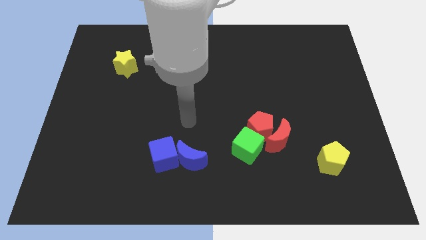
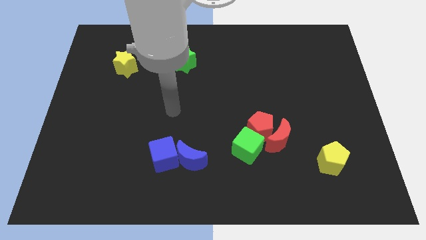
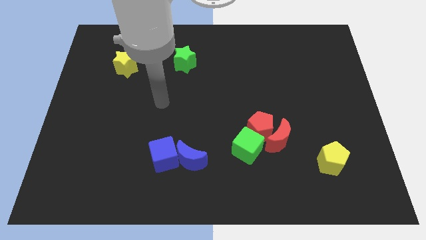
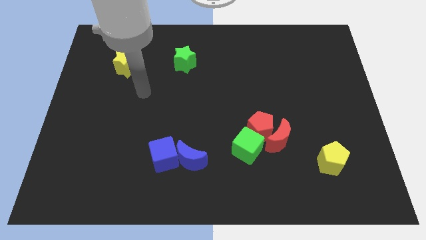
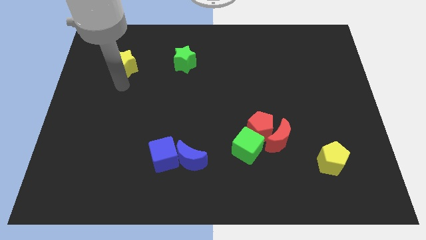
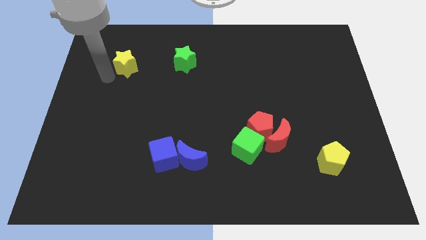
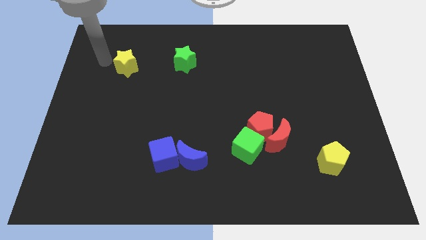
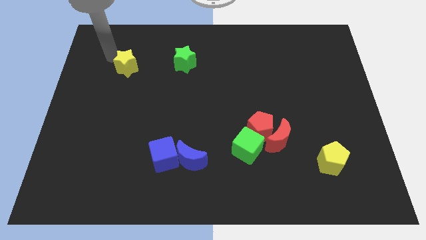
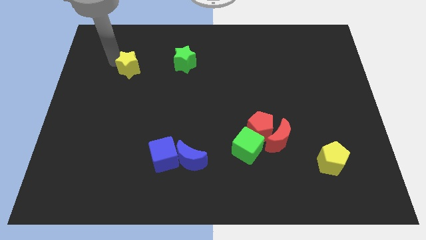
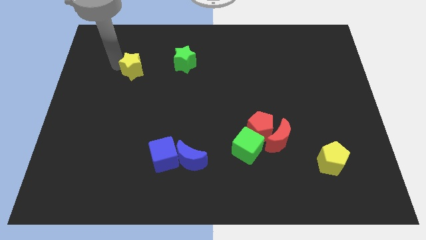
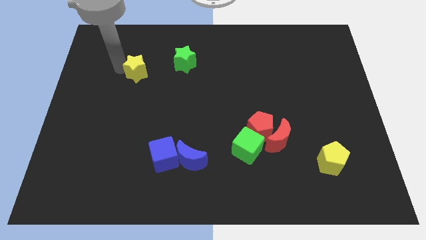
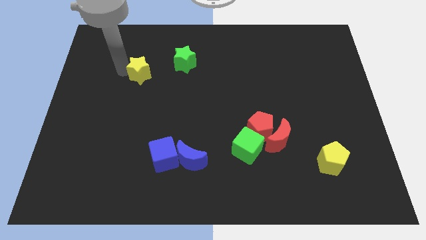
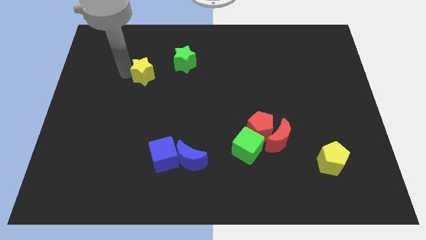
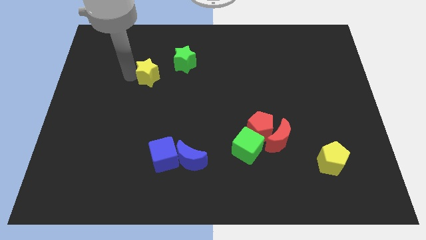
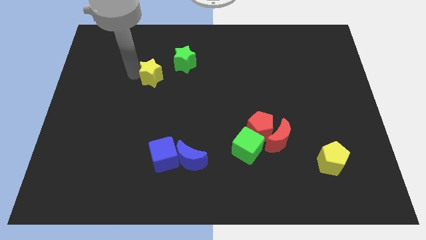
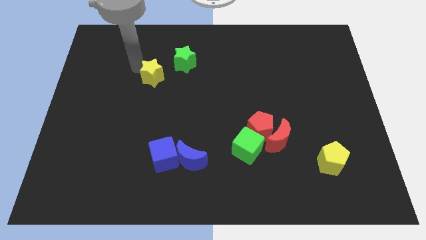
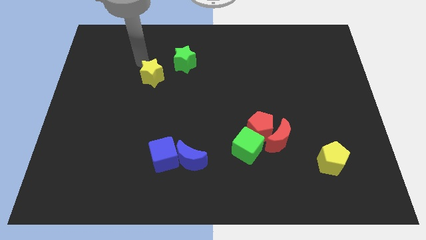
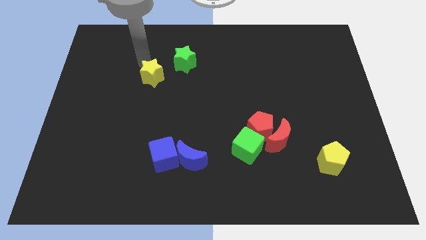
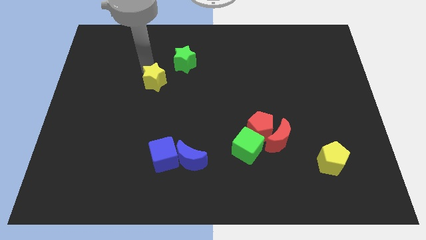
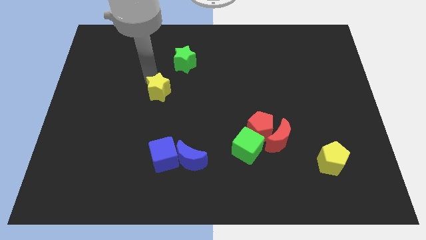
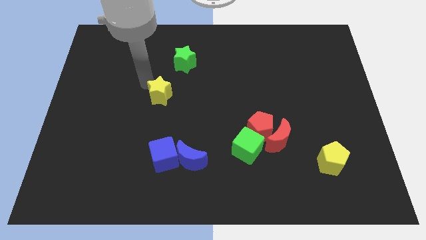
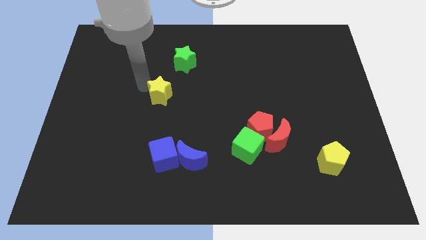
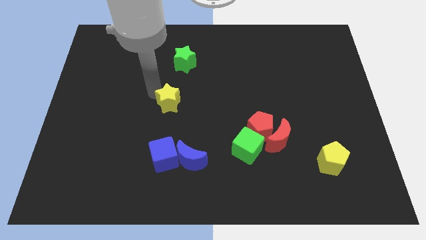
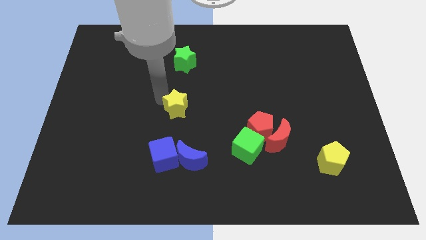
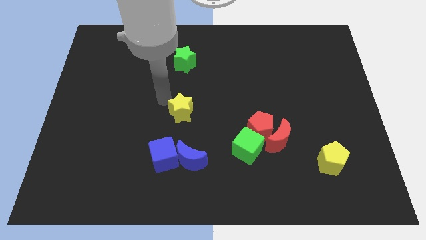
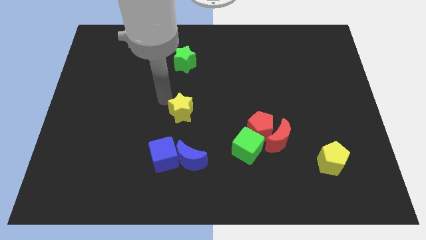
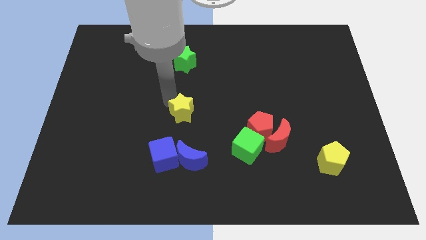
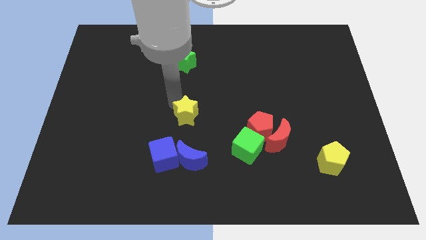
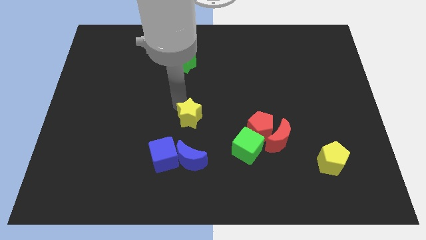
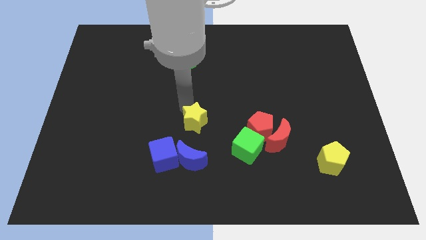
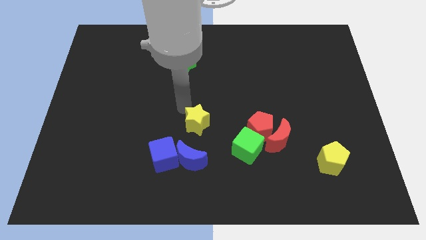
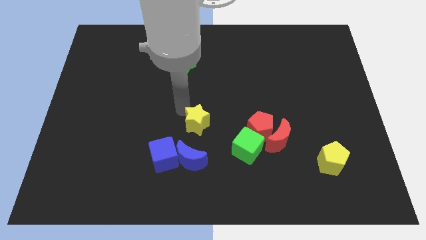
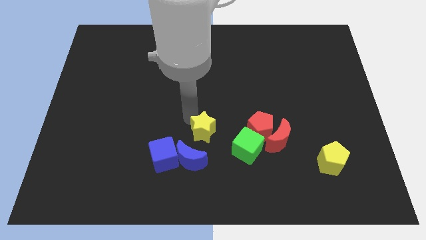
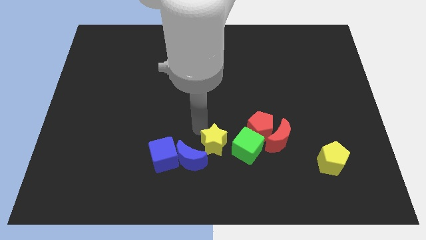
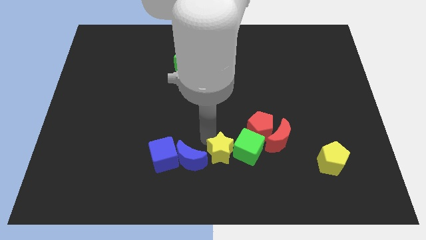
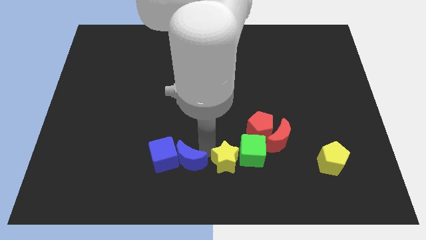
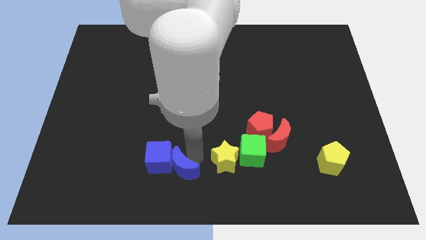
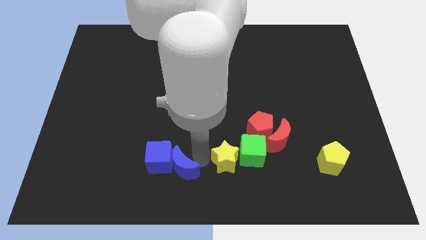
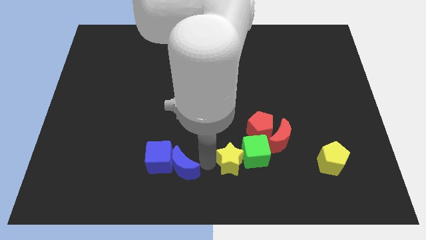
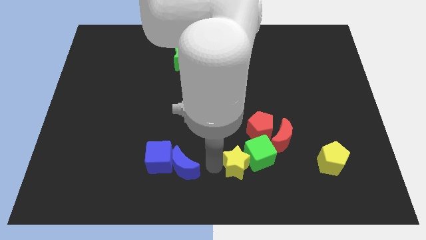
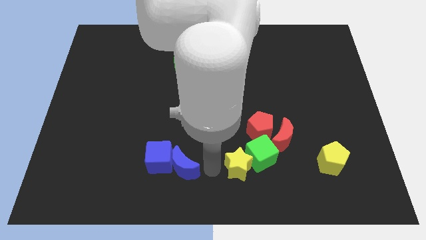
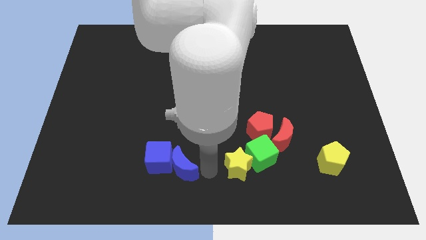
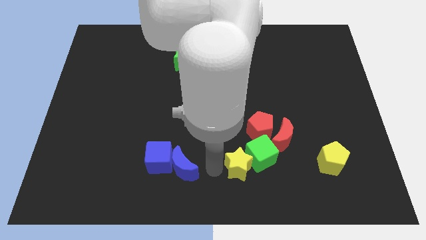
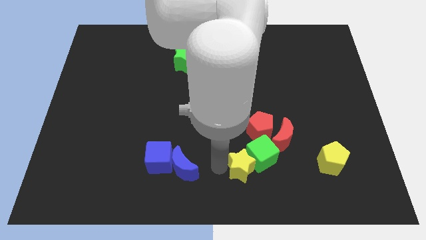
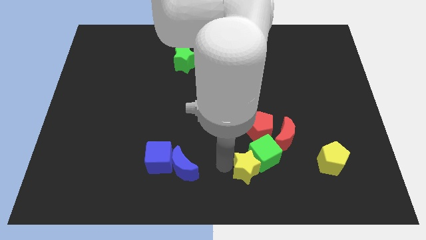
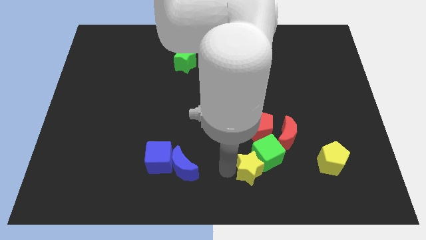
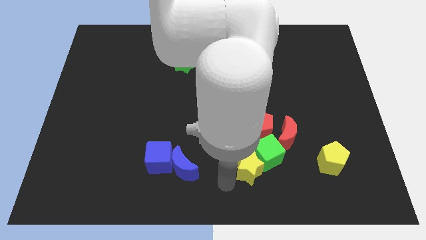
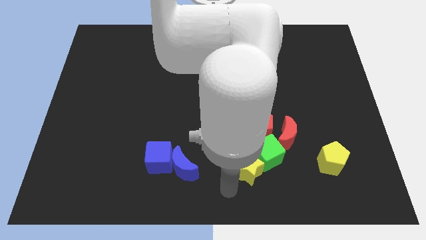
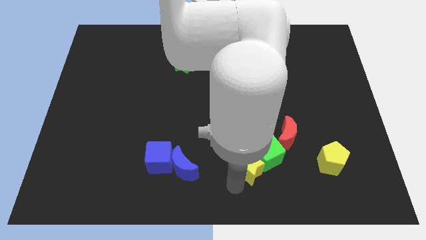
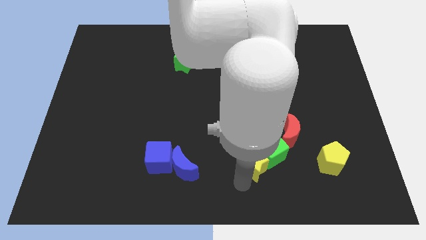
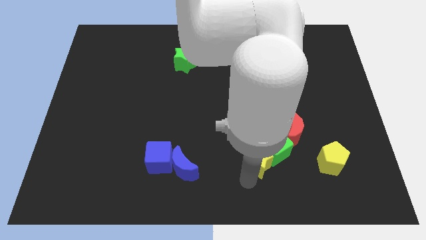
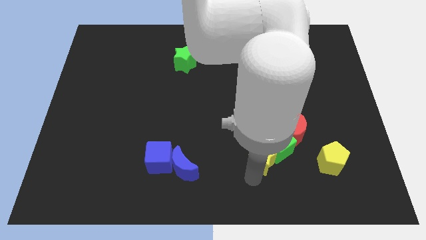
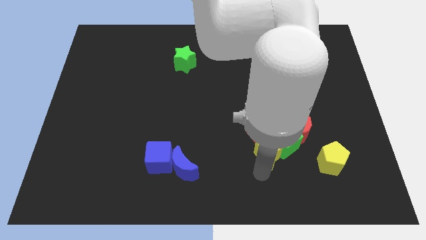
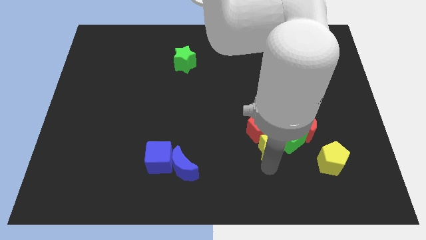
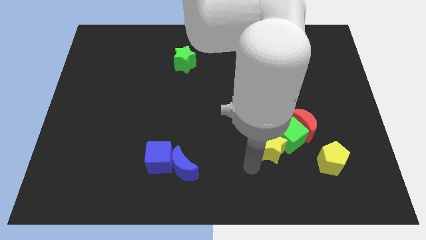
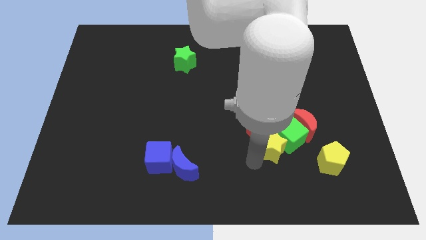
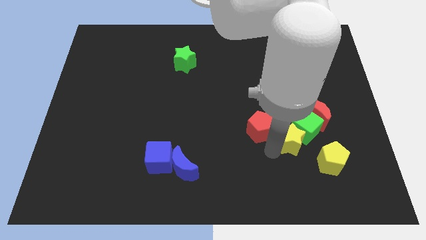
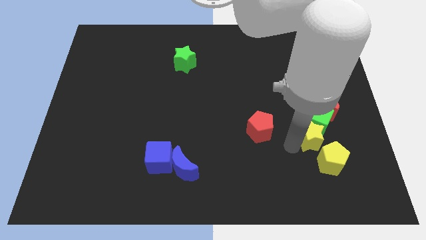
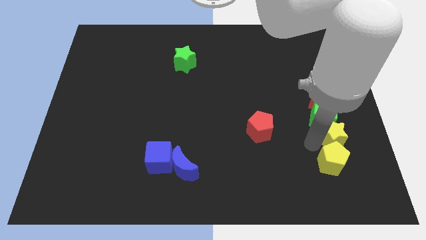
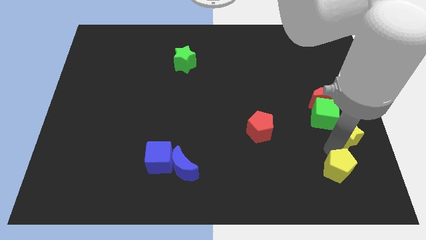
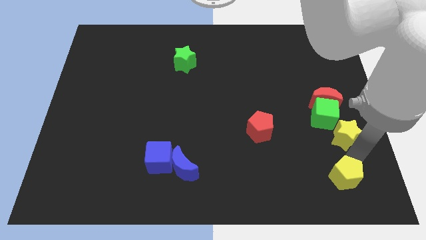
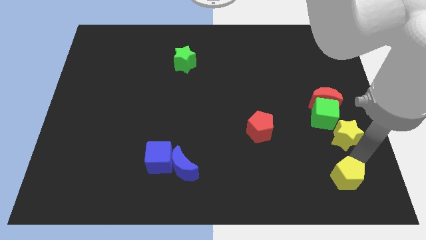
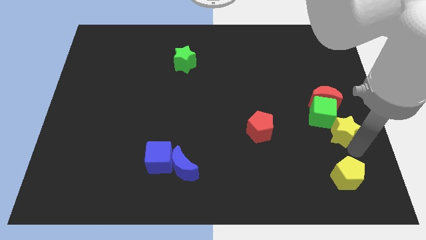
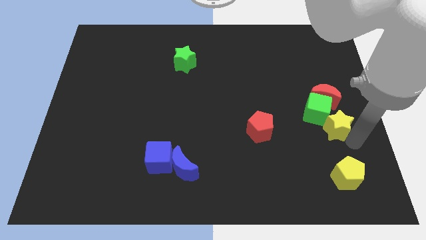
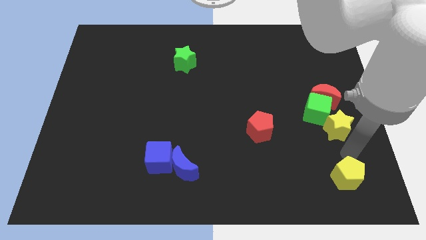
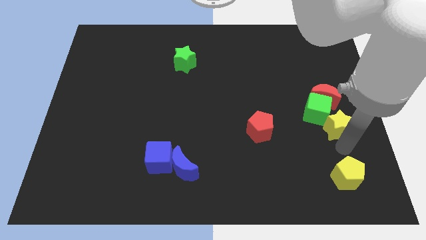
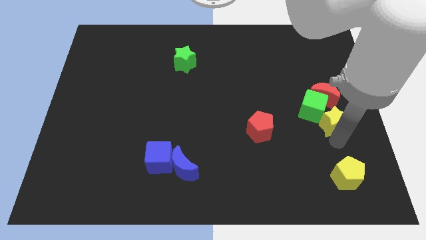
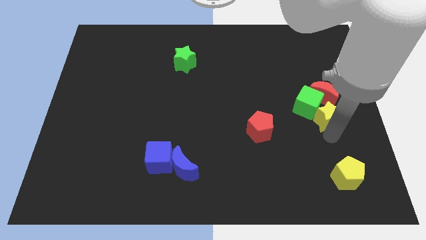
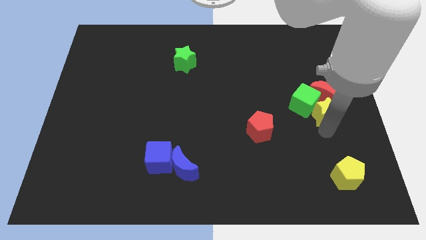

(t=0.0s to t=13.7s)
put the yellow star close to the red moon
